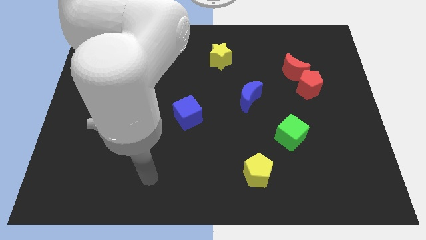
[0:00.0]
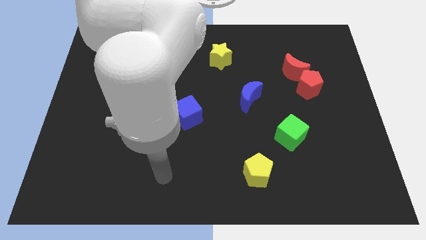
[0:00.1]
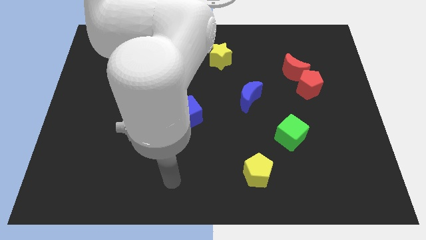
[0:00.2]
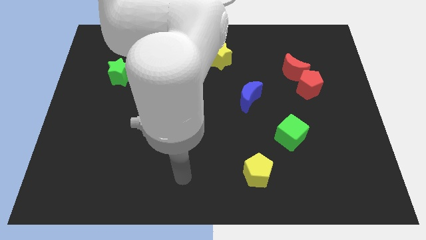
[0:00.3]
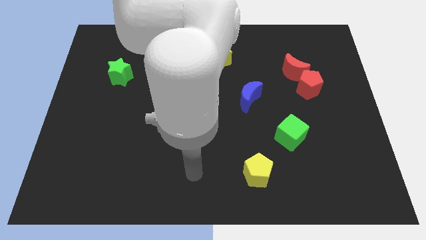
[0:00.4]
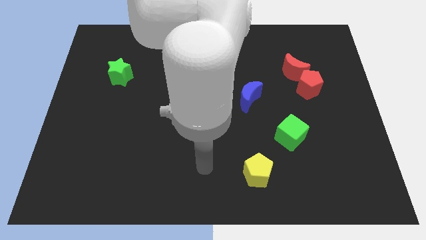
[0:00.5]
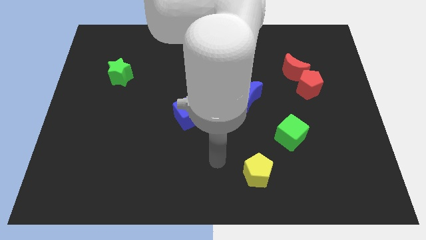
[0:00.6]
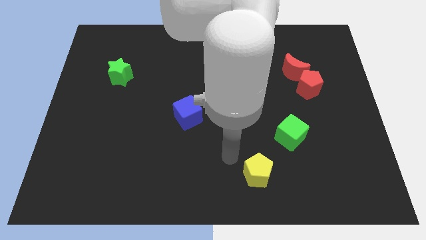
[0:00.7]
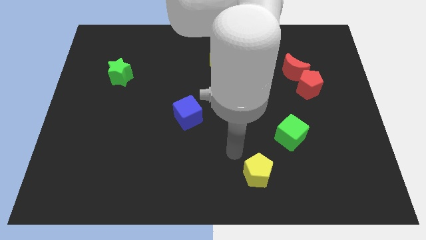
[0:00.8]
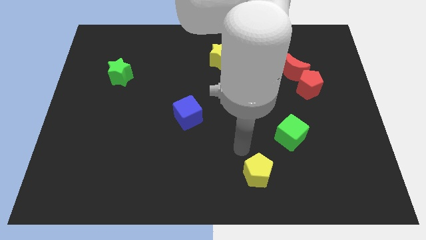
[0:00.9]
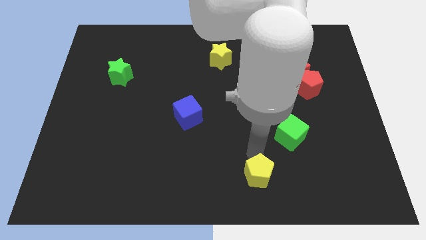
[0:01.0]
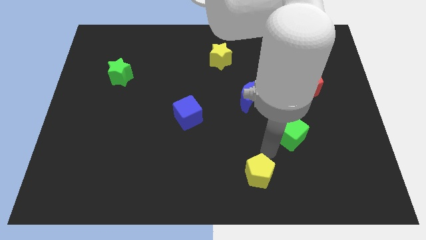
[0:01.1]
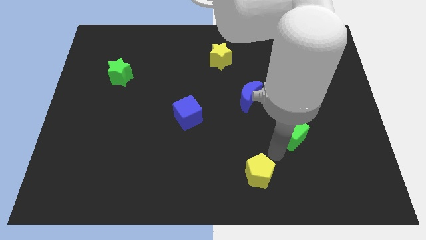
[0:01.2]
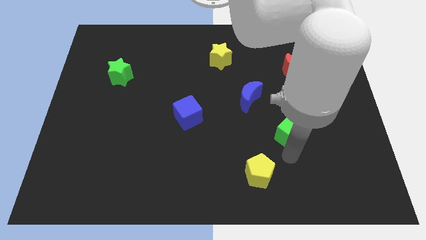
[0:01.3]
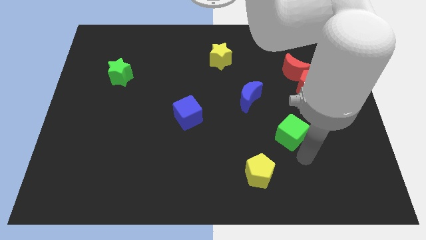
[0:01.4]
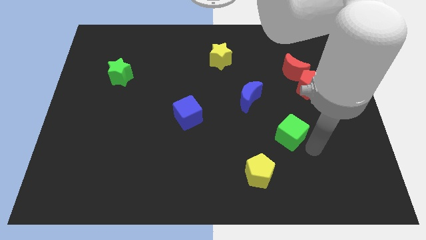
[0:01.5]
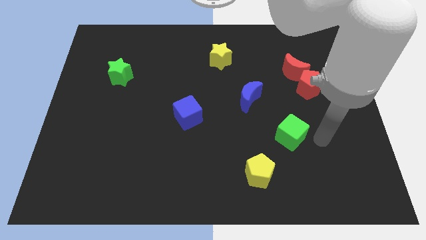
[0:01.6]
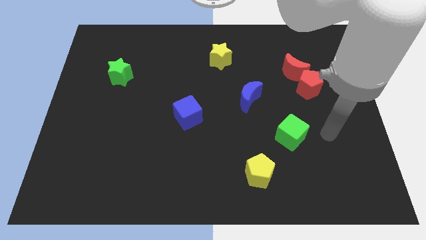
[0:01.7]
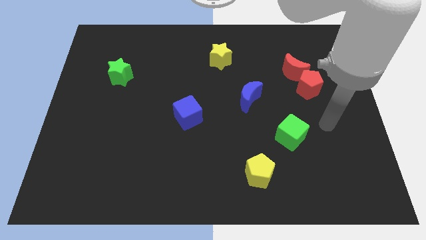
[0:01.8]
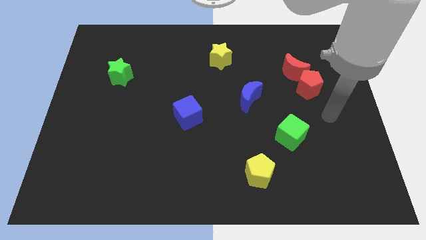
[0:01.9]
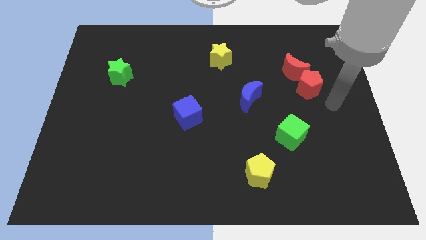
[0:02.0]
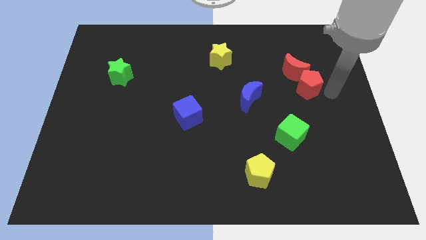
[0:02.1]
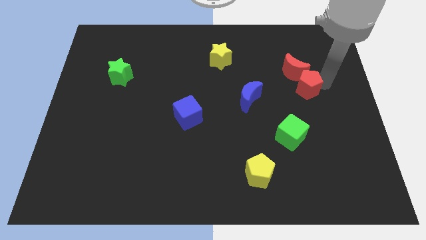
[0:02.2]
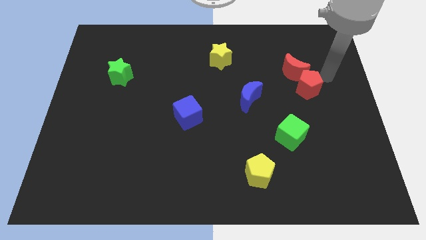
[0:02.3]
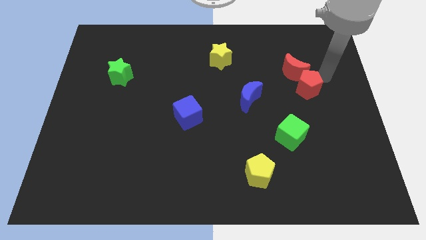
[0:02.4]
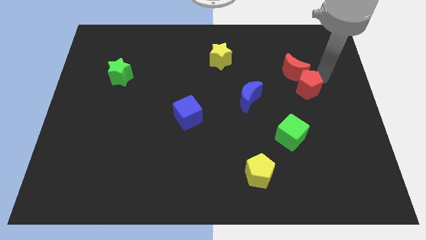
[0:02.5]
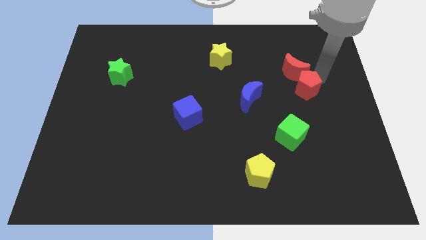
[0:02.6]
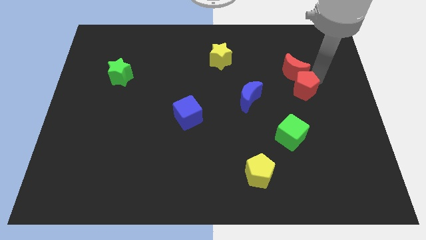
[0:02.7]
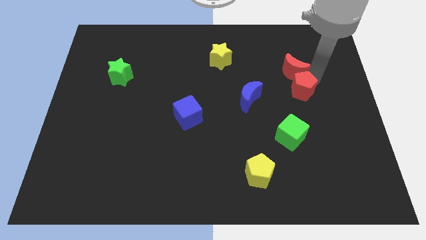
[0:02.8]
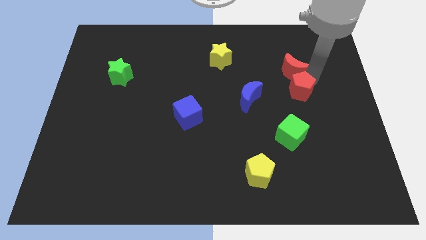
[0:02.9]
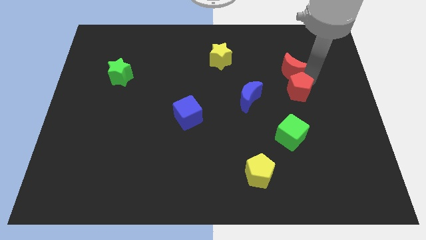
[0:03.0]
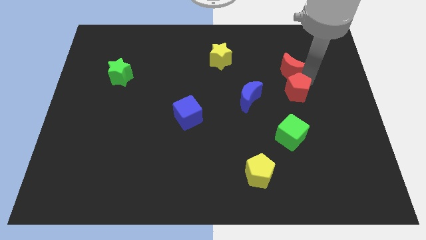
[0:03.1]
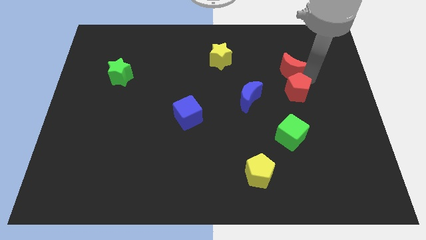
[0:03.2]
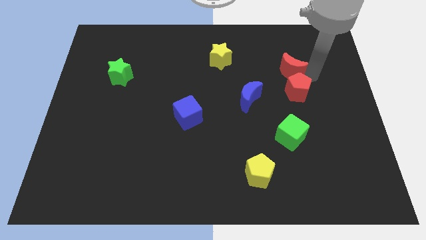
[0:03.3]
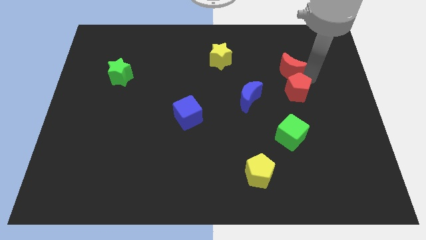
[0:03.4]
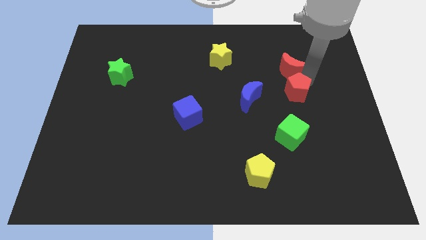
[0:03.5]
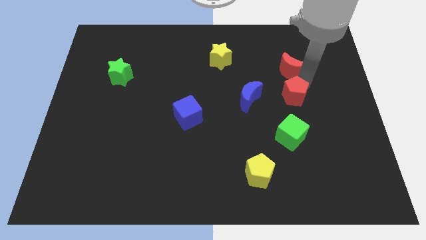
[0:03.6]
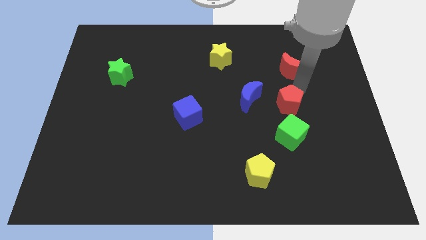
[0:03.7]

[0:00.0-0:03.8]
slightly push the red pentagon diagonally downwards and left

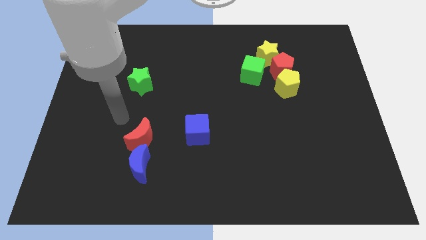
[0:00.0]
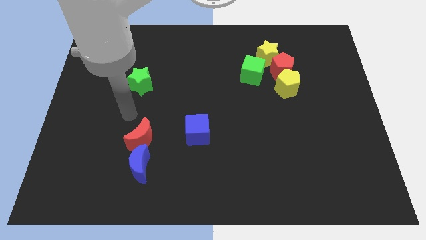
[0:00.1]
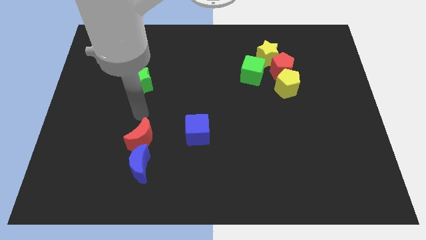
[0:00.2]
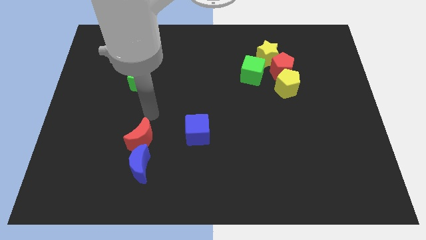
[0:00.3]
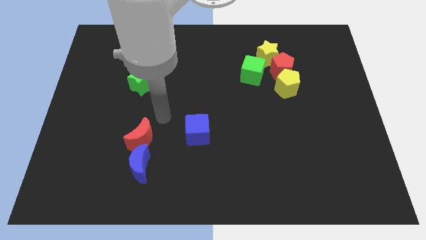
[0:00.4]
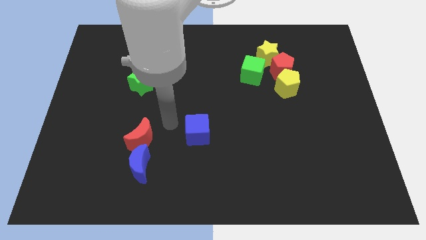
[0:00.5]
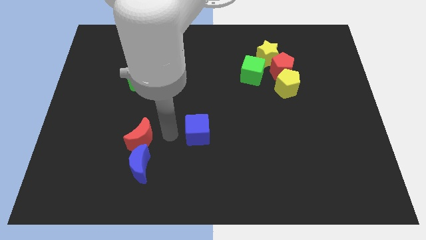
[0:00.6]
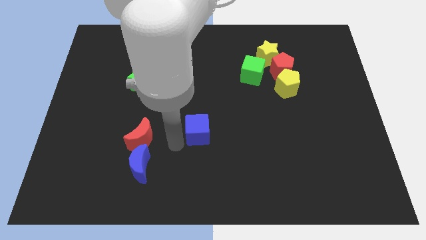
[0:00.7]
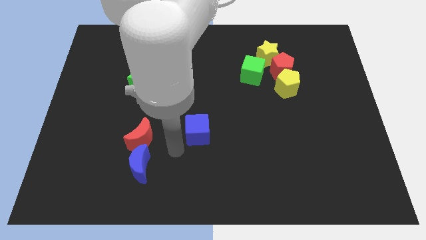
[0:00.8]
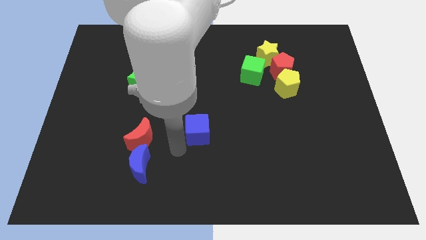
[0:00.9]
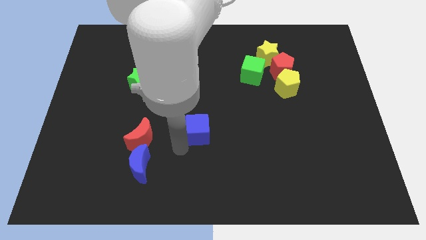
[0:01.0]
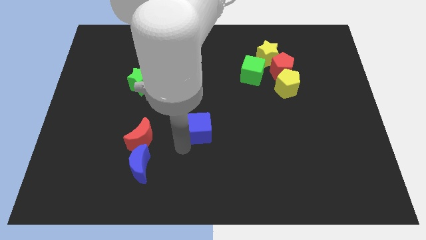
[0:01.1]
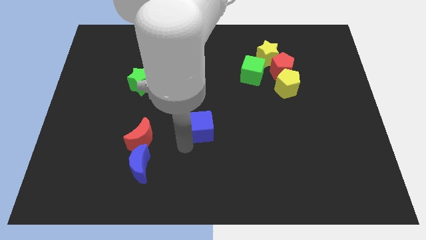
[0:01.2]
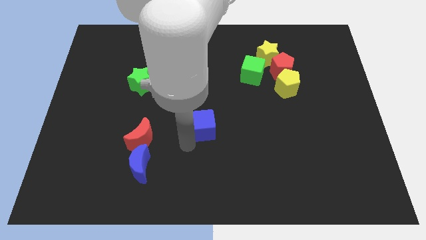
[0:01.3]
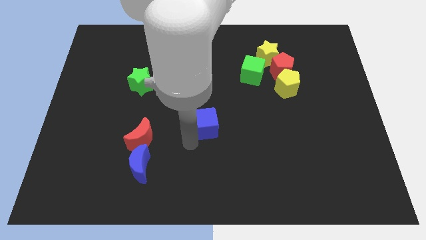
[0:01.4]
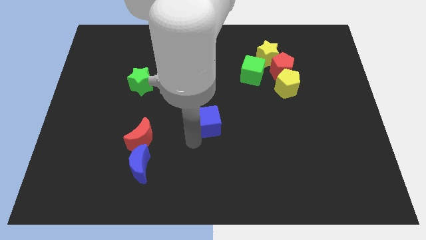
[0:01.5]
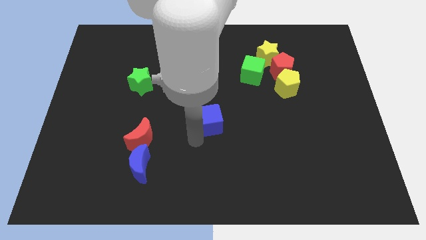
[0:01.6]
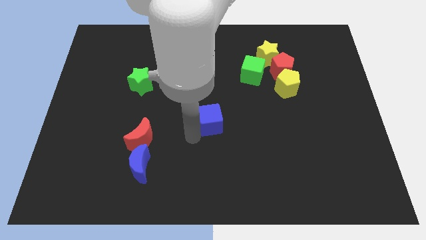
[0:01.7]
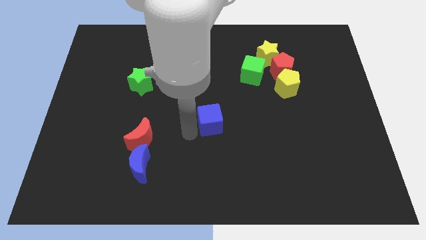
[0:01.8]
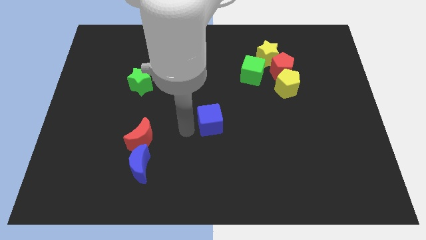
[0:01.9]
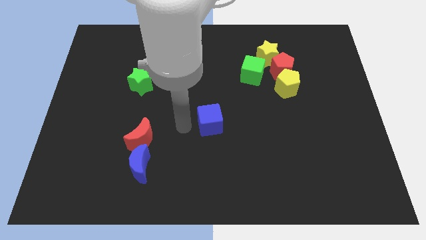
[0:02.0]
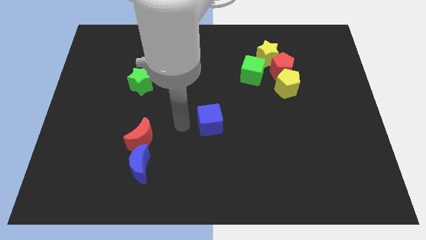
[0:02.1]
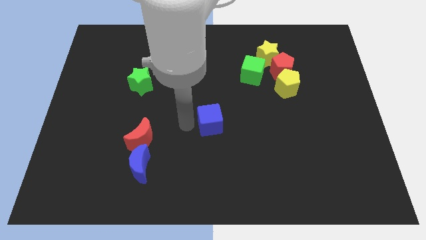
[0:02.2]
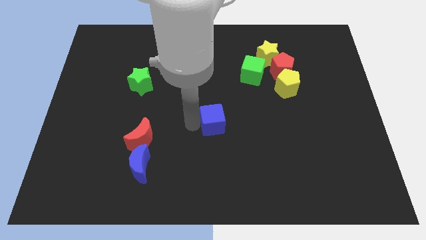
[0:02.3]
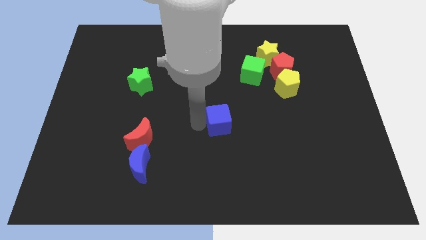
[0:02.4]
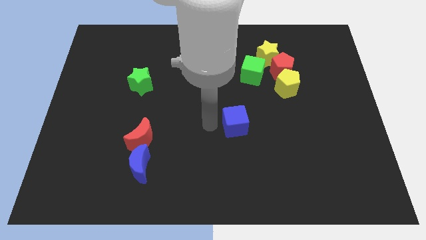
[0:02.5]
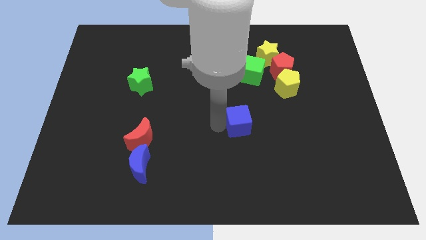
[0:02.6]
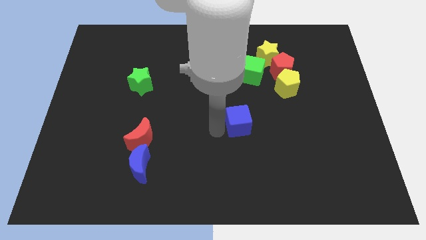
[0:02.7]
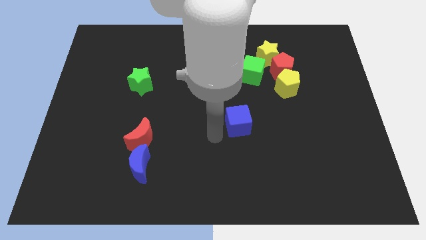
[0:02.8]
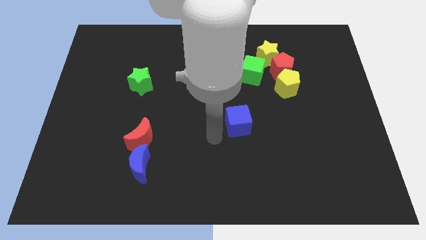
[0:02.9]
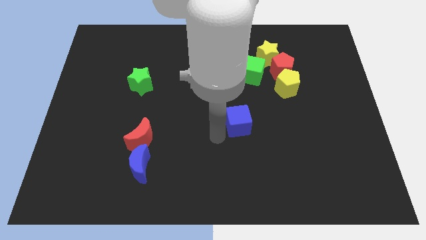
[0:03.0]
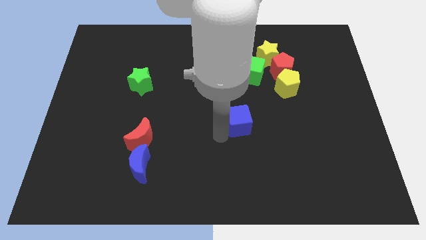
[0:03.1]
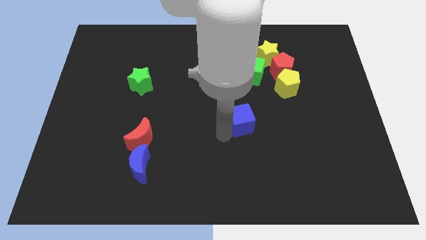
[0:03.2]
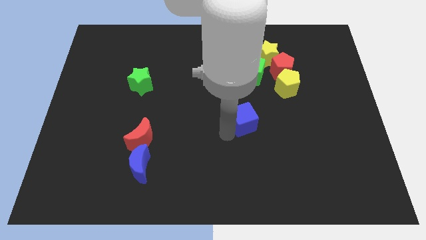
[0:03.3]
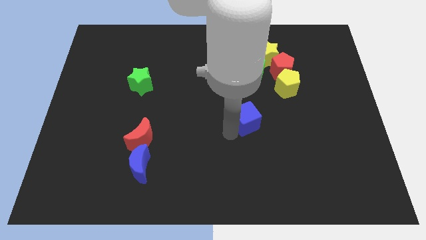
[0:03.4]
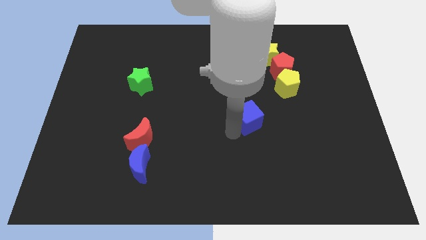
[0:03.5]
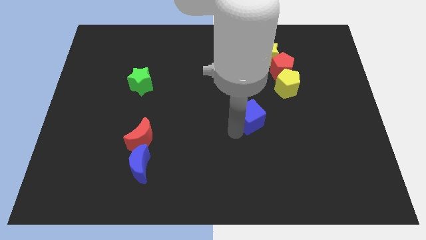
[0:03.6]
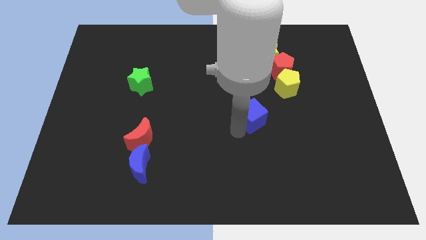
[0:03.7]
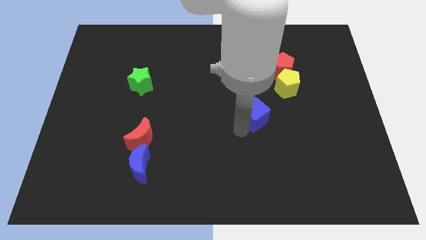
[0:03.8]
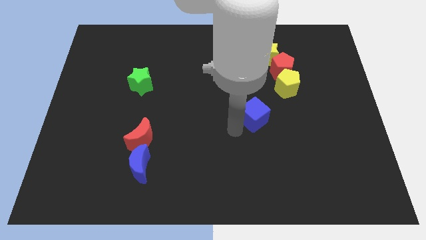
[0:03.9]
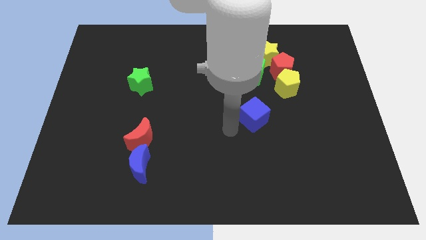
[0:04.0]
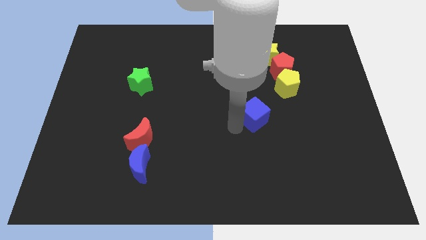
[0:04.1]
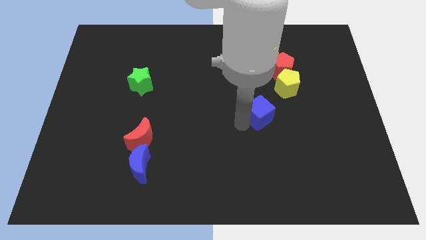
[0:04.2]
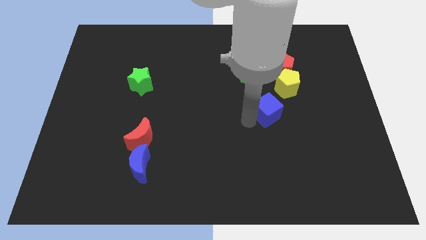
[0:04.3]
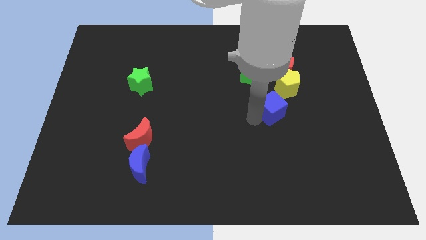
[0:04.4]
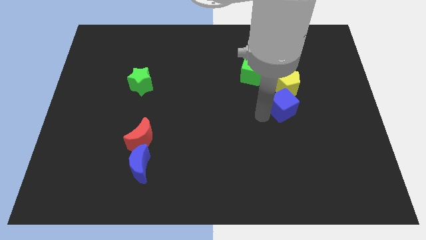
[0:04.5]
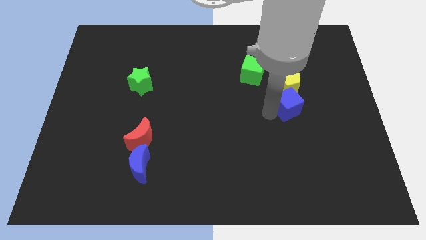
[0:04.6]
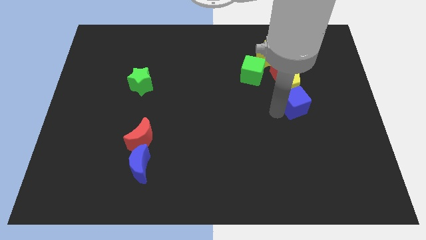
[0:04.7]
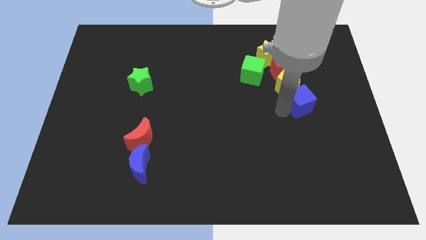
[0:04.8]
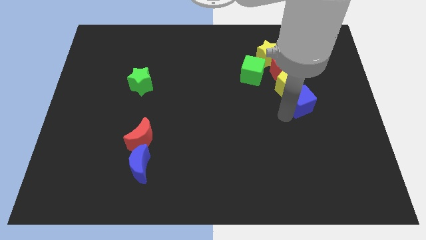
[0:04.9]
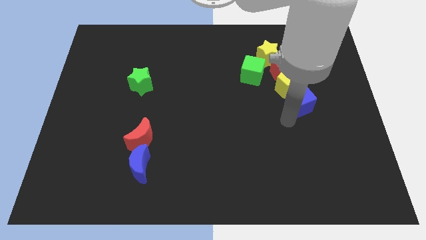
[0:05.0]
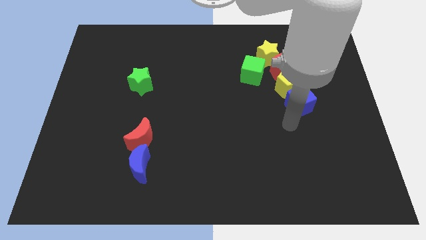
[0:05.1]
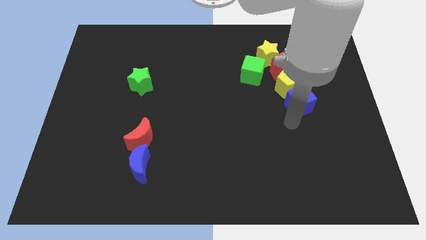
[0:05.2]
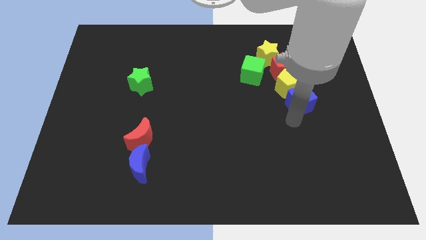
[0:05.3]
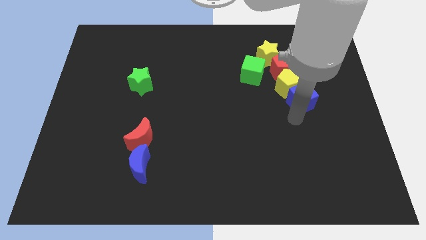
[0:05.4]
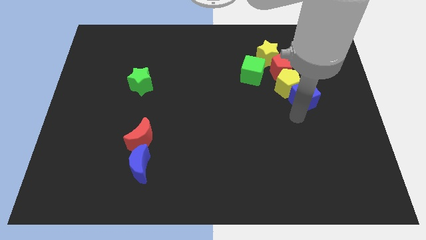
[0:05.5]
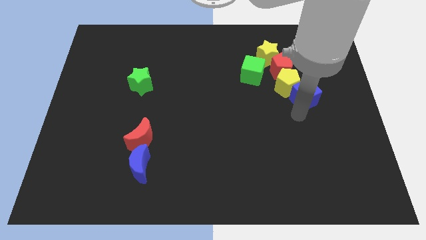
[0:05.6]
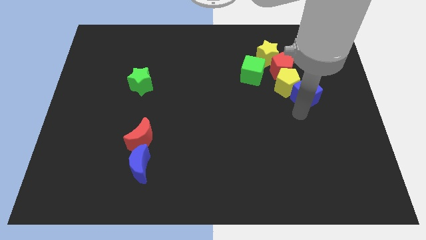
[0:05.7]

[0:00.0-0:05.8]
slide the blue cube upwards and to the right diagonally
